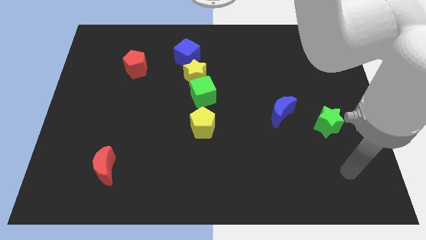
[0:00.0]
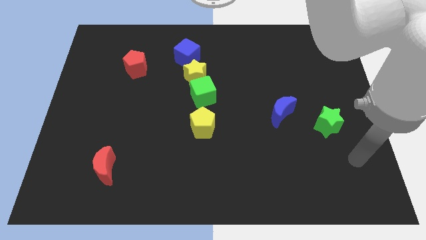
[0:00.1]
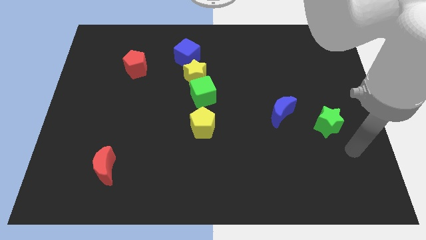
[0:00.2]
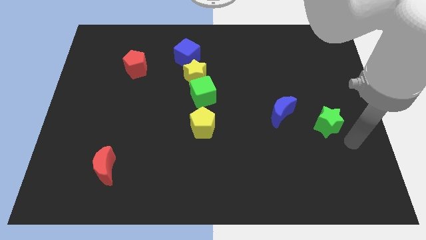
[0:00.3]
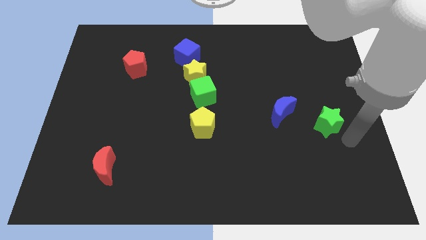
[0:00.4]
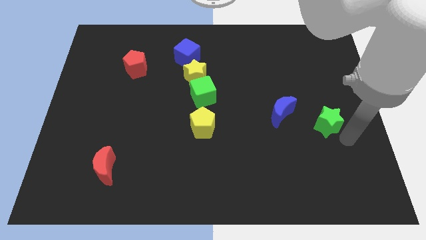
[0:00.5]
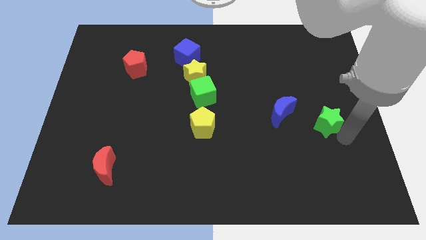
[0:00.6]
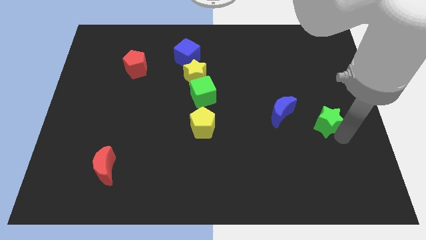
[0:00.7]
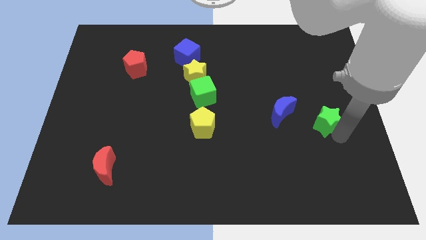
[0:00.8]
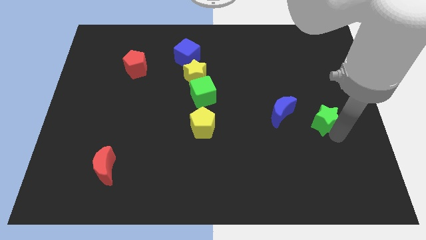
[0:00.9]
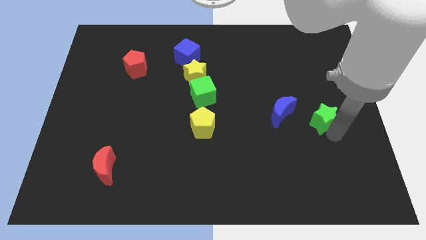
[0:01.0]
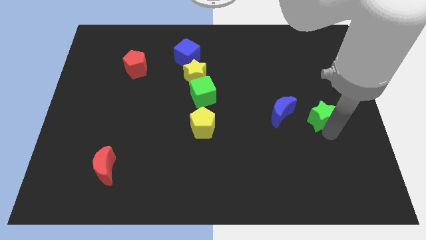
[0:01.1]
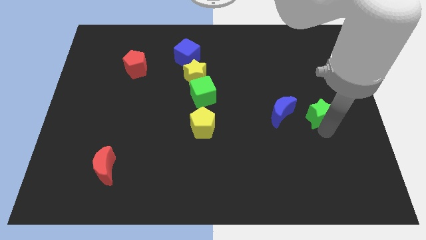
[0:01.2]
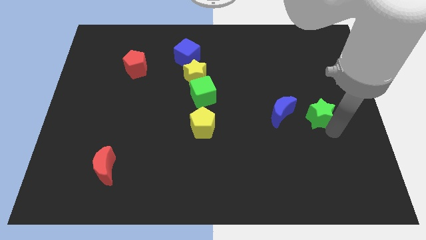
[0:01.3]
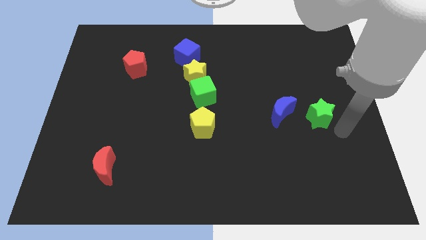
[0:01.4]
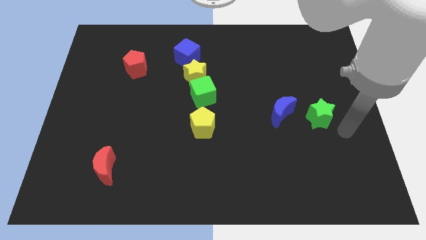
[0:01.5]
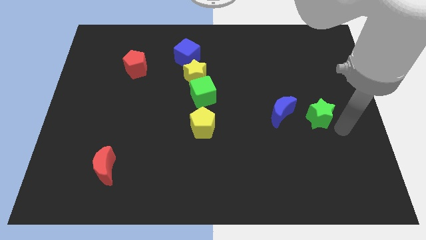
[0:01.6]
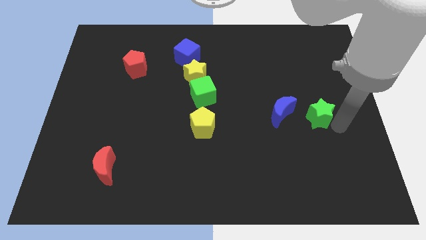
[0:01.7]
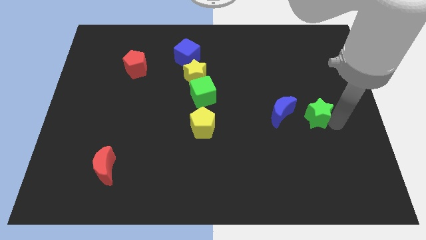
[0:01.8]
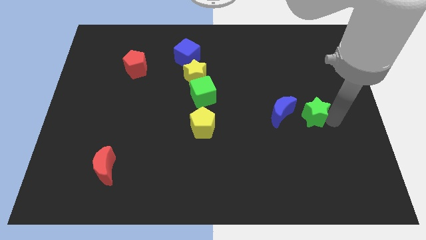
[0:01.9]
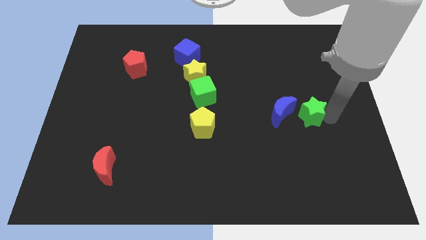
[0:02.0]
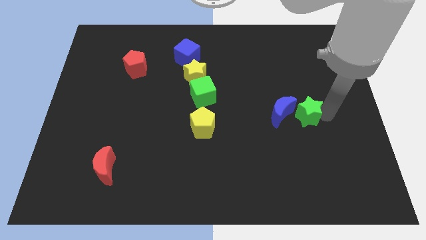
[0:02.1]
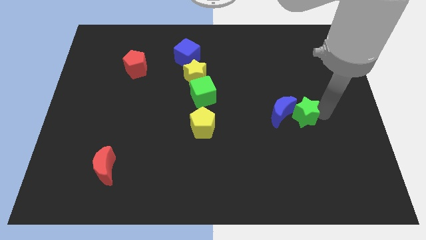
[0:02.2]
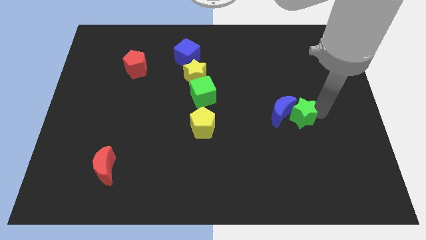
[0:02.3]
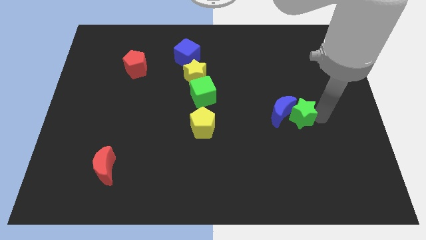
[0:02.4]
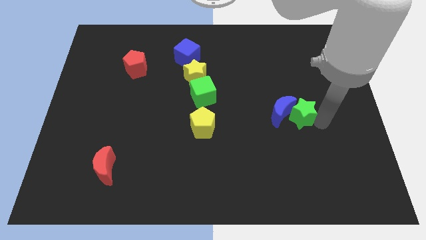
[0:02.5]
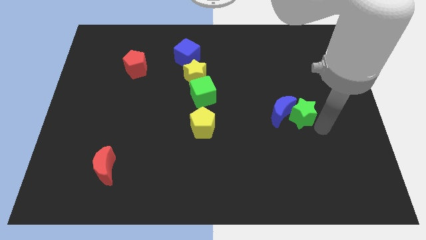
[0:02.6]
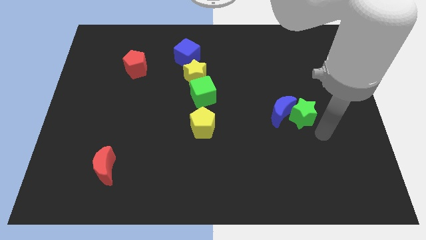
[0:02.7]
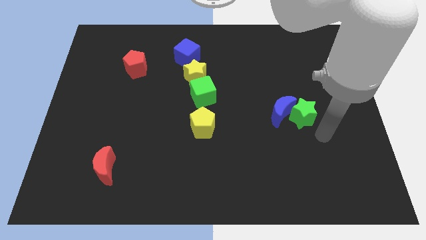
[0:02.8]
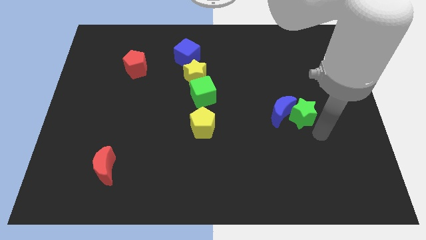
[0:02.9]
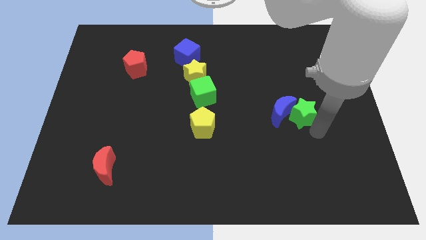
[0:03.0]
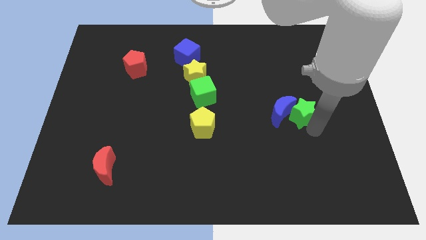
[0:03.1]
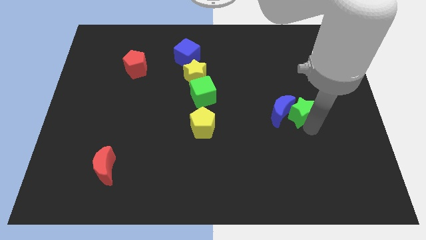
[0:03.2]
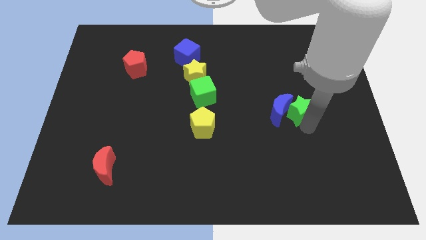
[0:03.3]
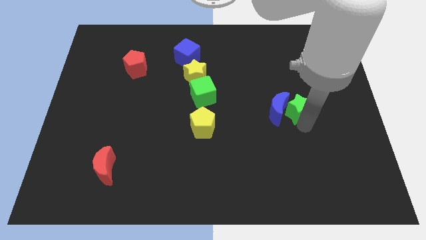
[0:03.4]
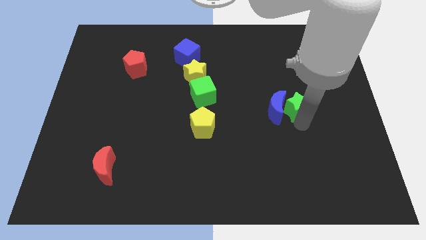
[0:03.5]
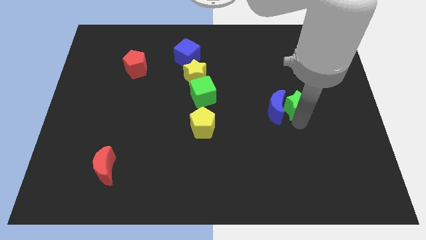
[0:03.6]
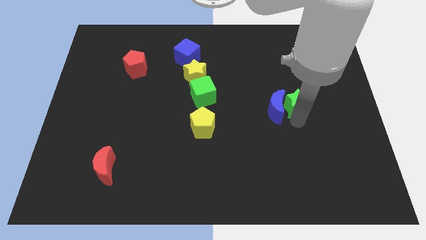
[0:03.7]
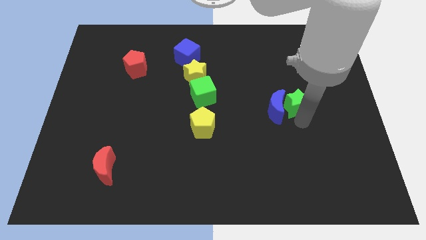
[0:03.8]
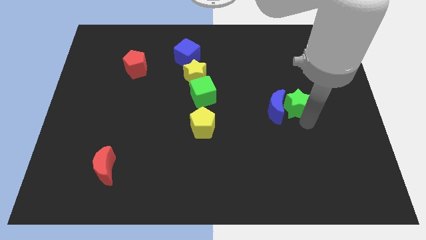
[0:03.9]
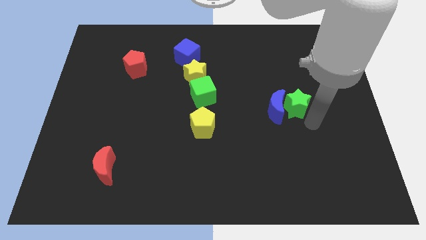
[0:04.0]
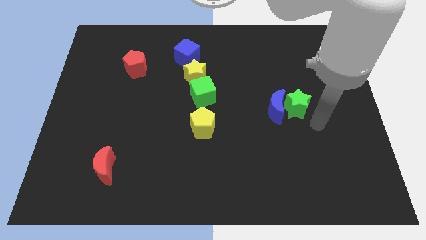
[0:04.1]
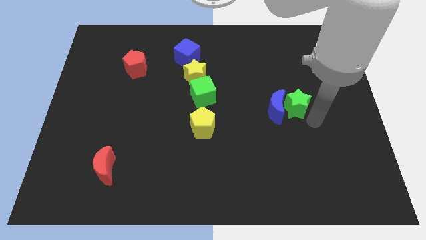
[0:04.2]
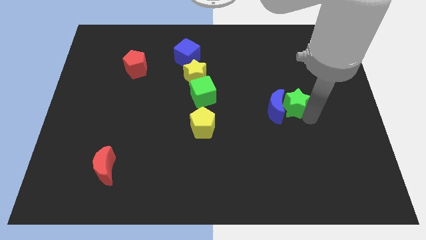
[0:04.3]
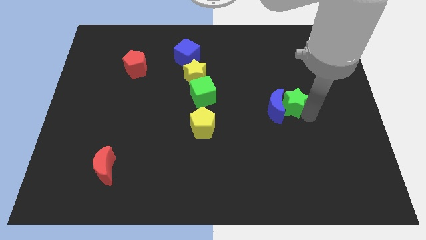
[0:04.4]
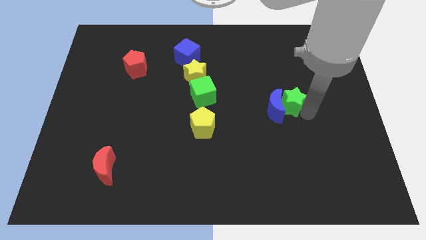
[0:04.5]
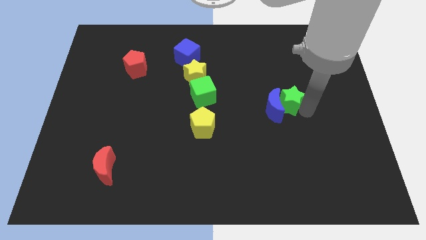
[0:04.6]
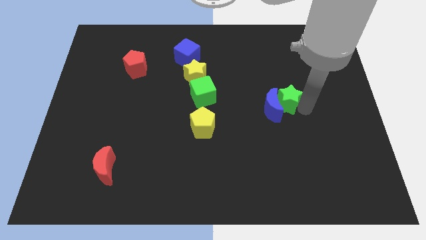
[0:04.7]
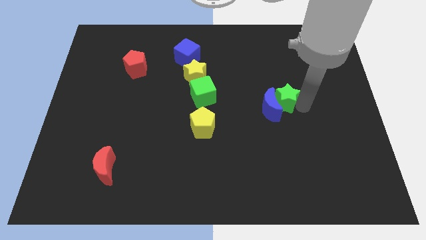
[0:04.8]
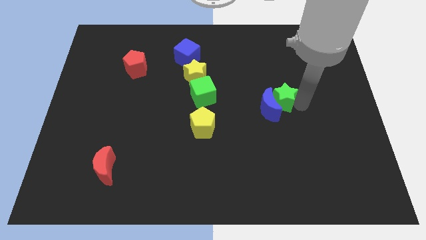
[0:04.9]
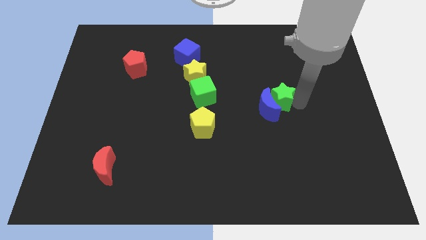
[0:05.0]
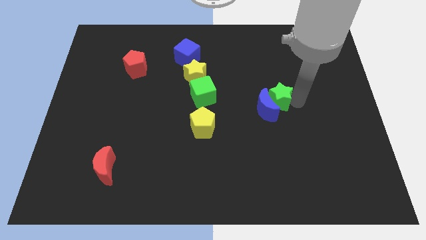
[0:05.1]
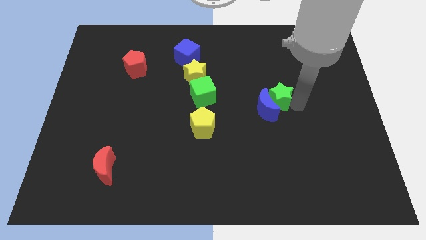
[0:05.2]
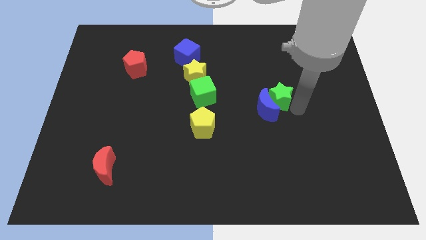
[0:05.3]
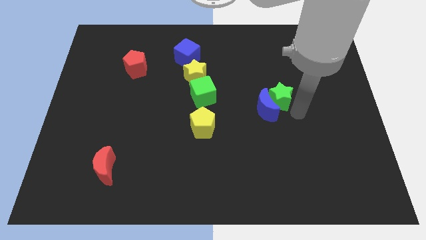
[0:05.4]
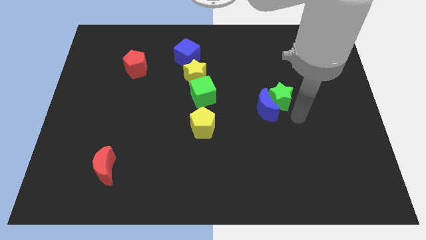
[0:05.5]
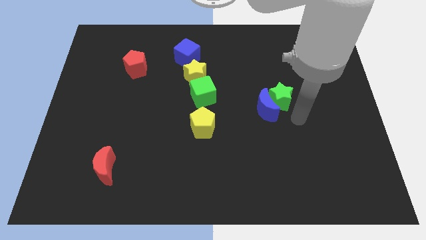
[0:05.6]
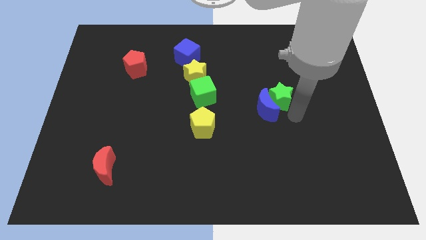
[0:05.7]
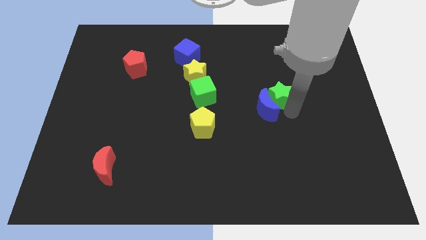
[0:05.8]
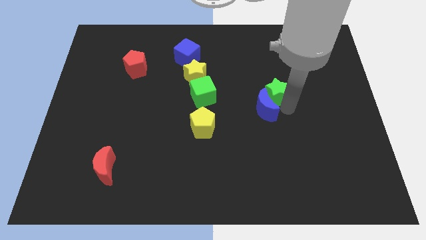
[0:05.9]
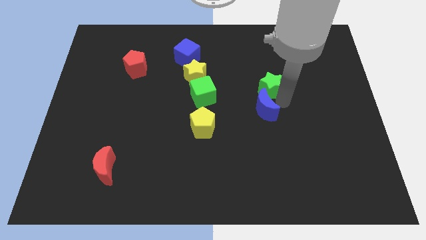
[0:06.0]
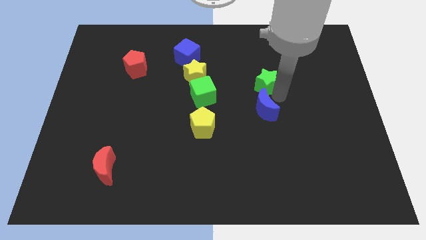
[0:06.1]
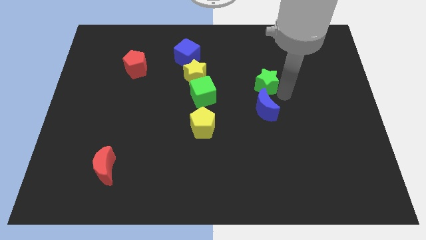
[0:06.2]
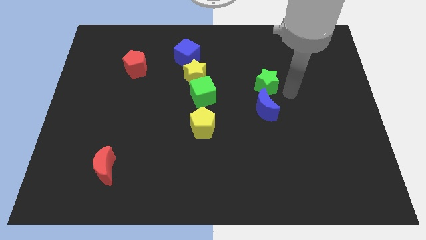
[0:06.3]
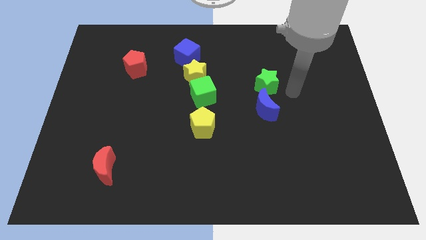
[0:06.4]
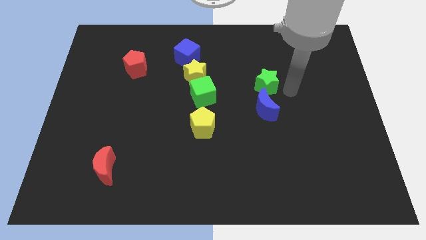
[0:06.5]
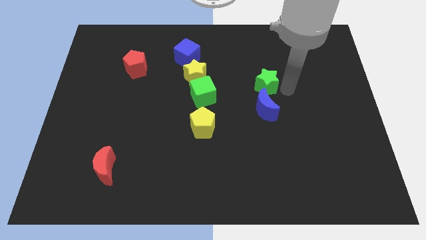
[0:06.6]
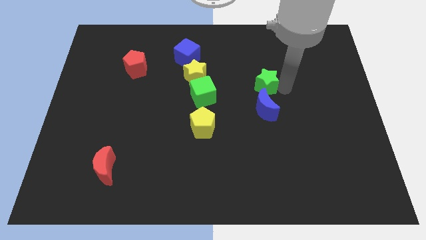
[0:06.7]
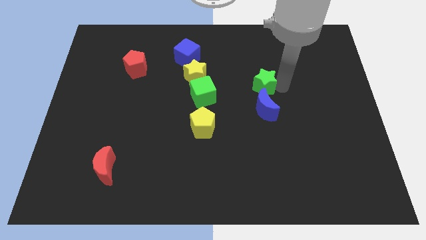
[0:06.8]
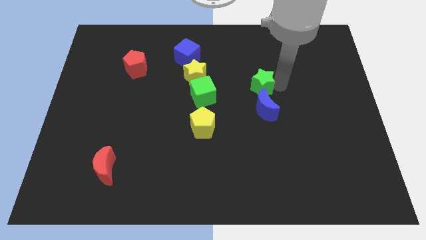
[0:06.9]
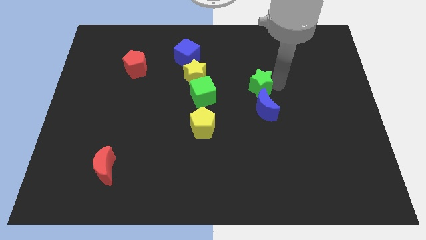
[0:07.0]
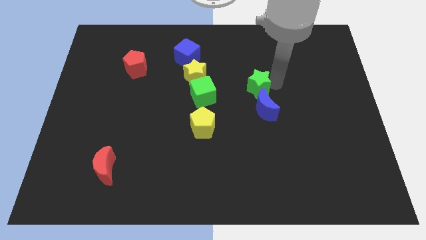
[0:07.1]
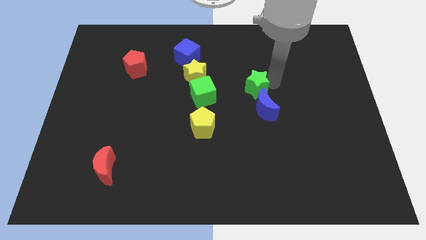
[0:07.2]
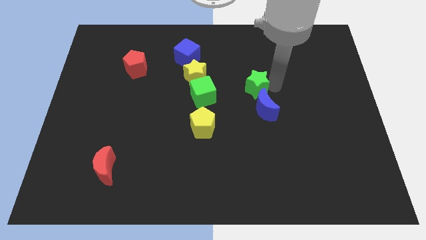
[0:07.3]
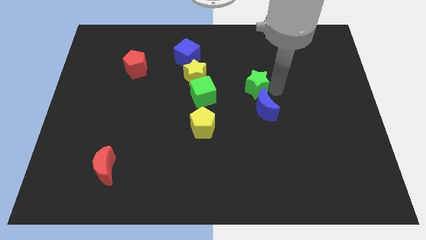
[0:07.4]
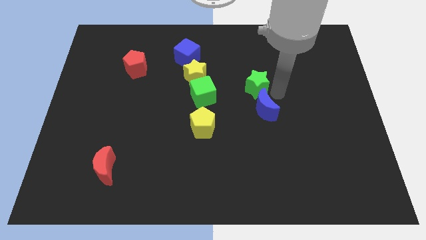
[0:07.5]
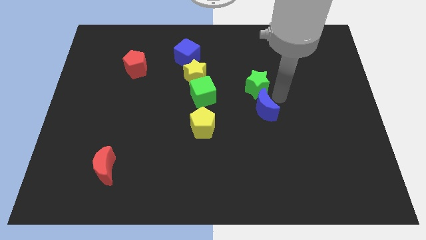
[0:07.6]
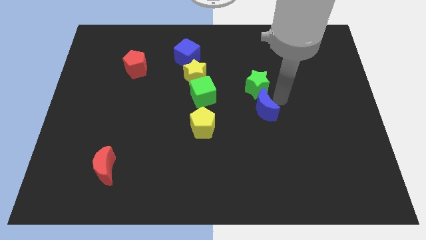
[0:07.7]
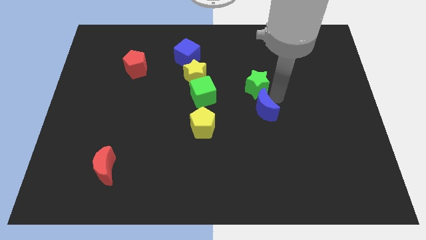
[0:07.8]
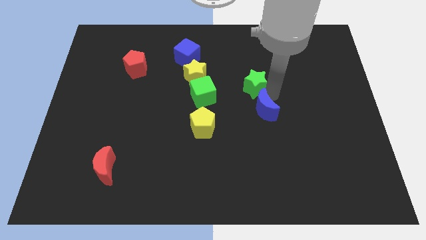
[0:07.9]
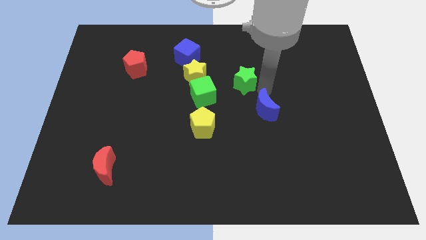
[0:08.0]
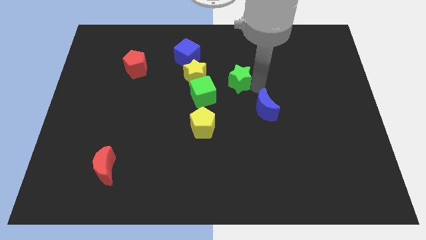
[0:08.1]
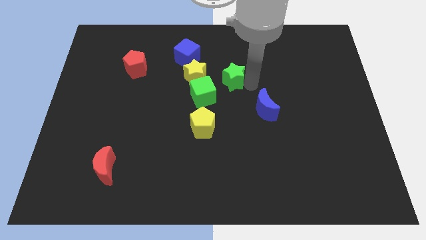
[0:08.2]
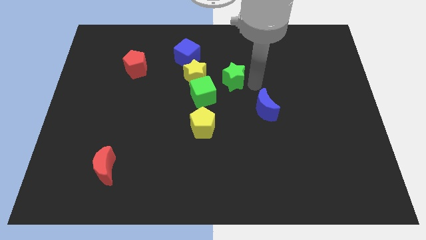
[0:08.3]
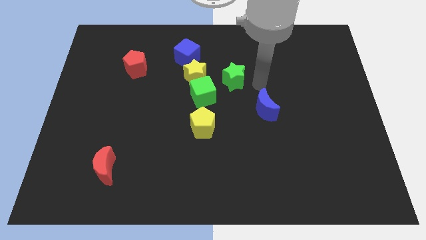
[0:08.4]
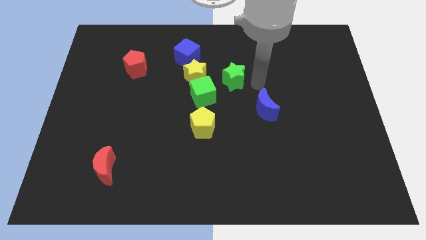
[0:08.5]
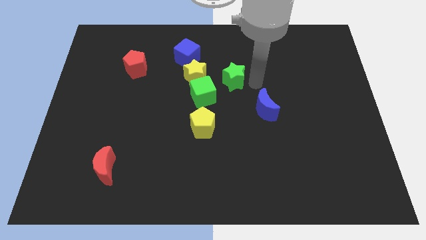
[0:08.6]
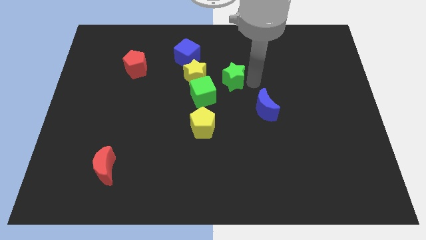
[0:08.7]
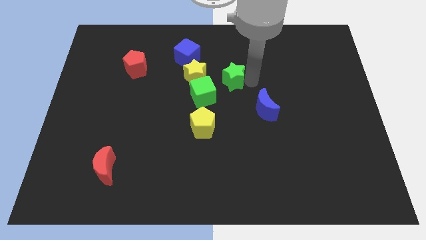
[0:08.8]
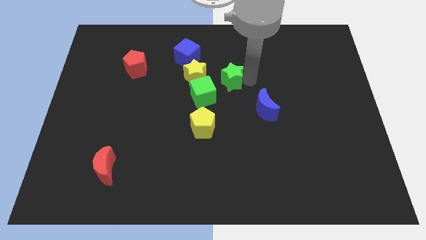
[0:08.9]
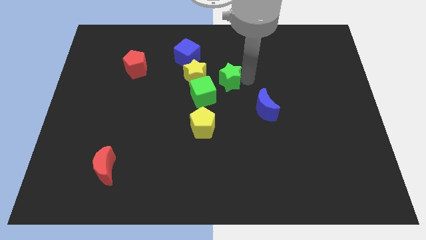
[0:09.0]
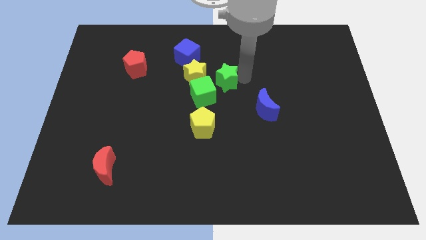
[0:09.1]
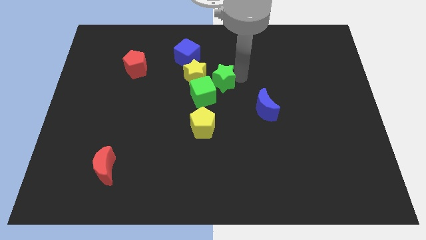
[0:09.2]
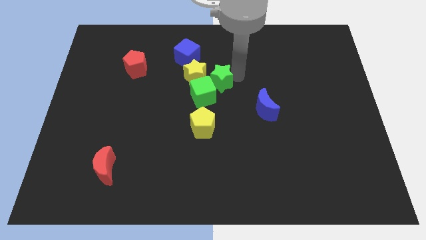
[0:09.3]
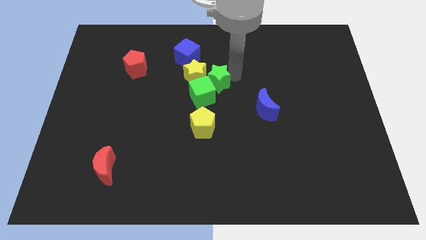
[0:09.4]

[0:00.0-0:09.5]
push the green star to the yellow star
